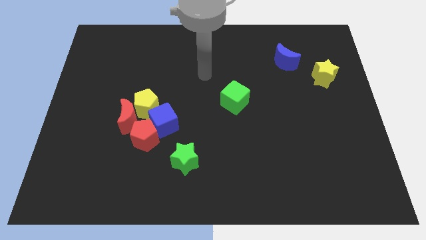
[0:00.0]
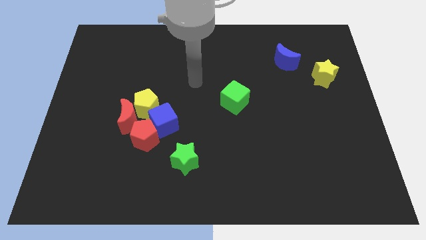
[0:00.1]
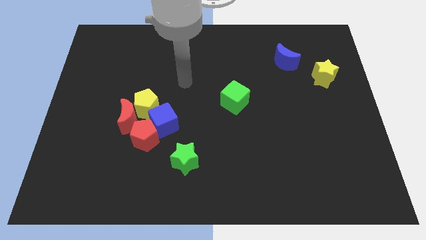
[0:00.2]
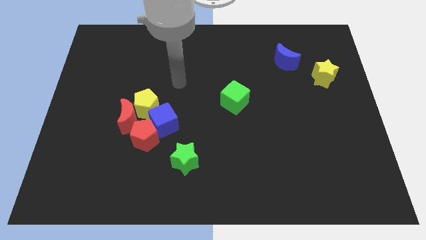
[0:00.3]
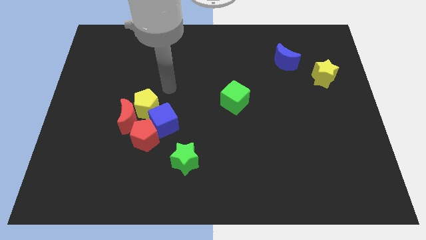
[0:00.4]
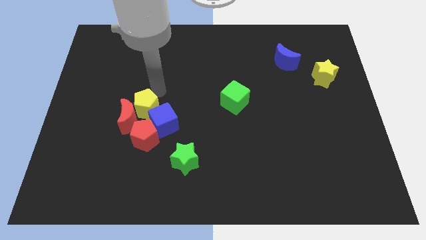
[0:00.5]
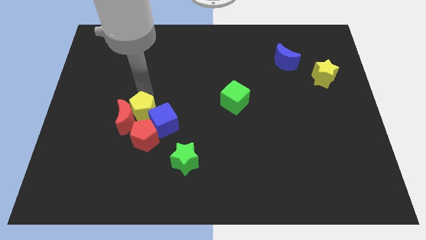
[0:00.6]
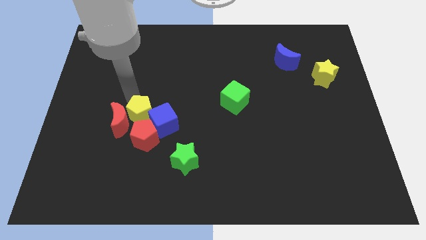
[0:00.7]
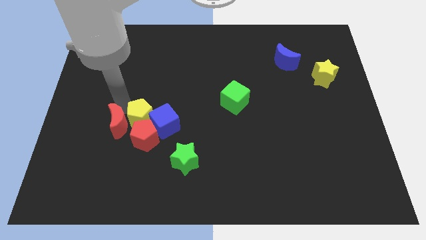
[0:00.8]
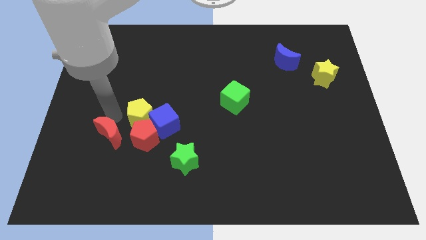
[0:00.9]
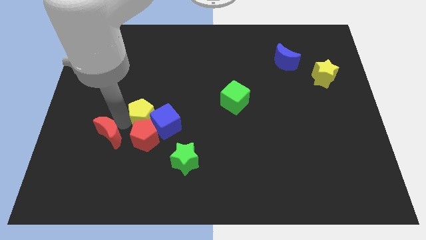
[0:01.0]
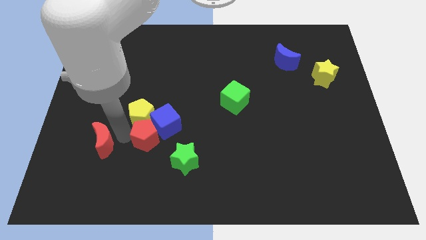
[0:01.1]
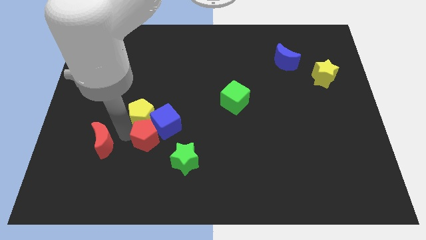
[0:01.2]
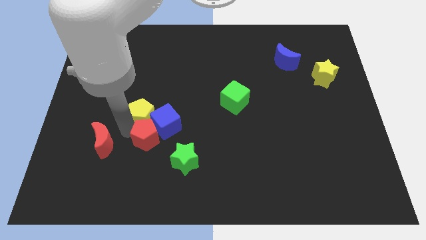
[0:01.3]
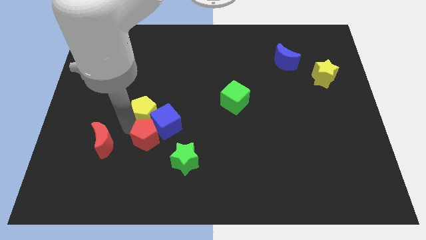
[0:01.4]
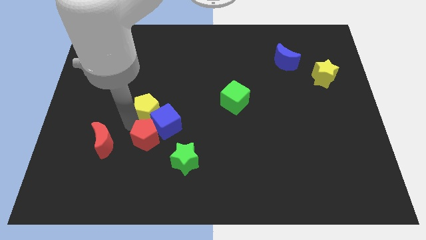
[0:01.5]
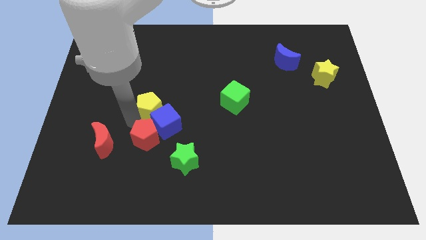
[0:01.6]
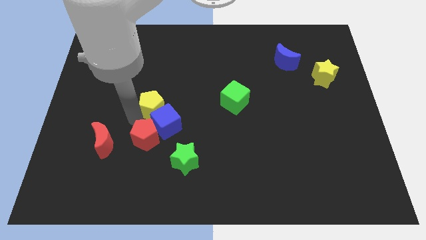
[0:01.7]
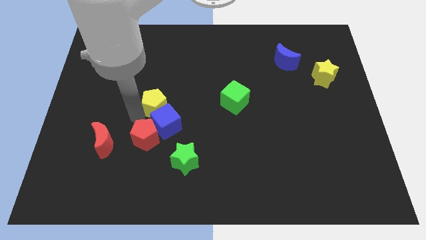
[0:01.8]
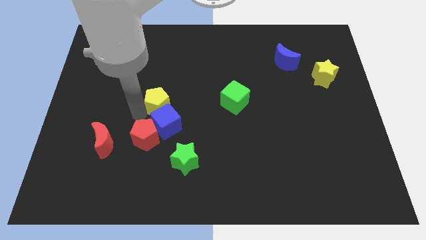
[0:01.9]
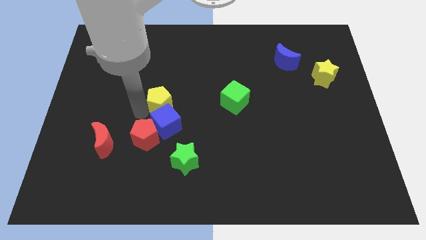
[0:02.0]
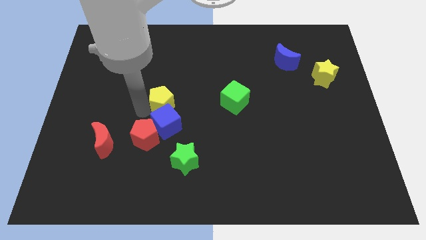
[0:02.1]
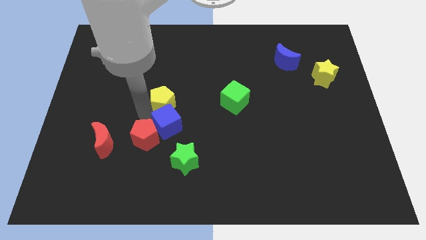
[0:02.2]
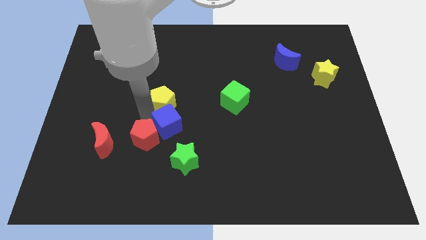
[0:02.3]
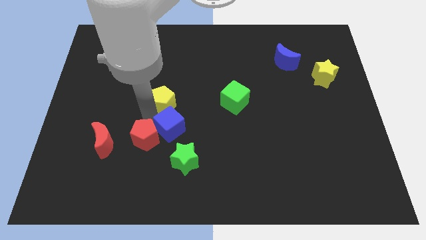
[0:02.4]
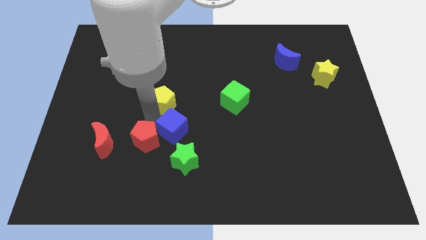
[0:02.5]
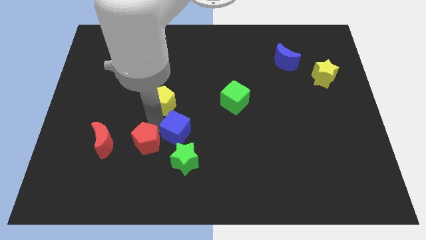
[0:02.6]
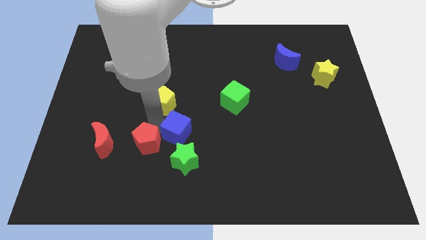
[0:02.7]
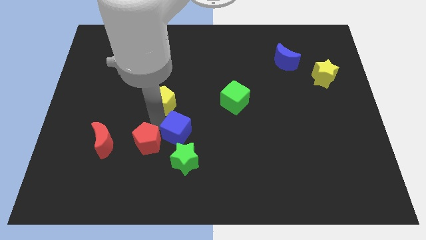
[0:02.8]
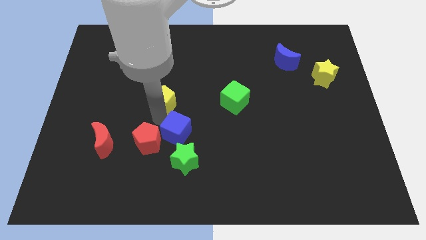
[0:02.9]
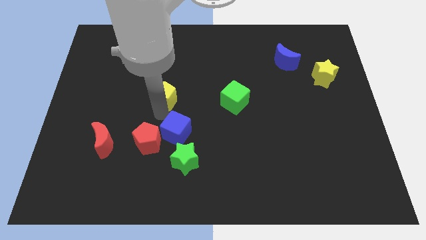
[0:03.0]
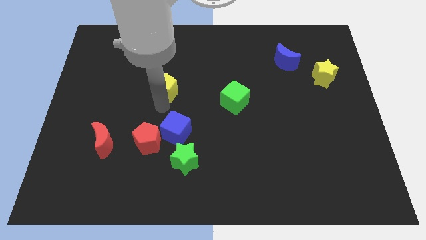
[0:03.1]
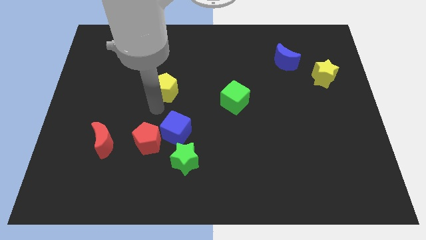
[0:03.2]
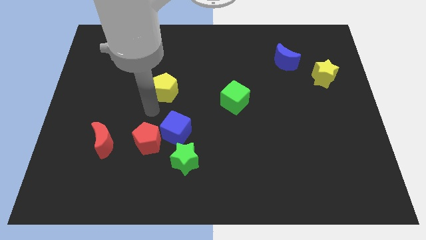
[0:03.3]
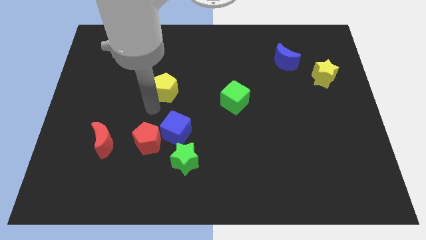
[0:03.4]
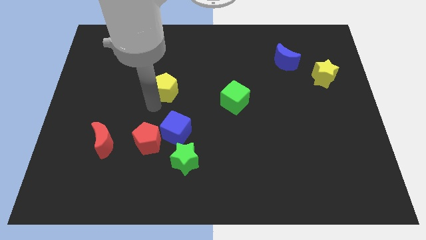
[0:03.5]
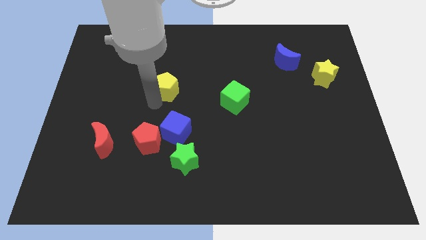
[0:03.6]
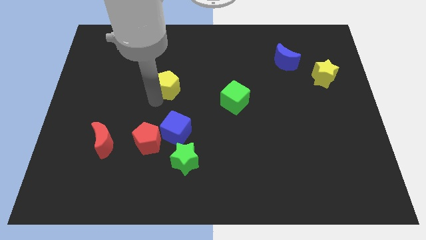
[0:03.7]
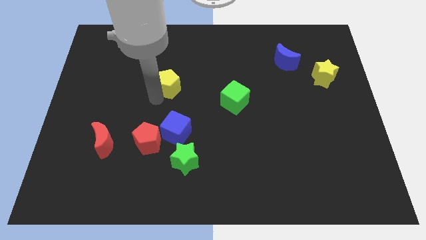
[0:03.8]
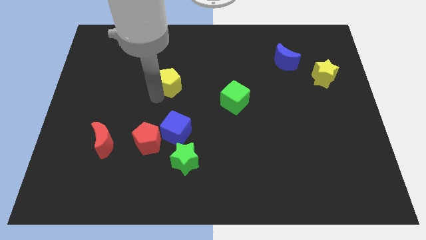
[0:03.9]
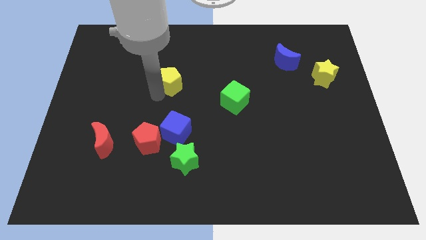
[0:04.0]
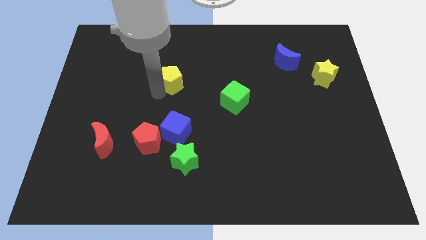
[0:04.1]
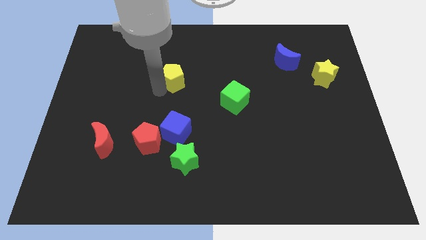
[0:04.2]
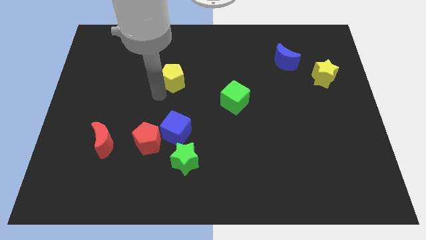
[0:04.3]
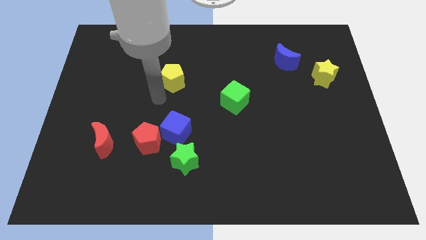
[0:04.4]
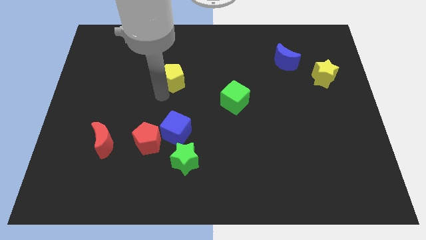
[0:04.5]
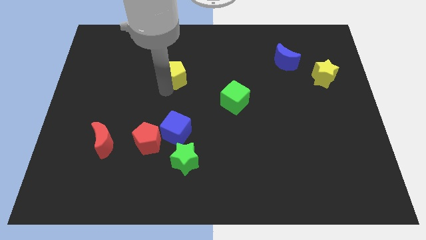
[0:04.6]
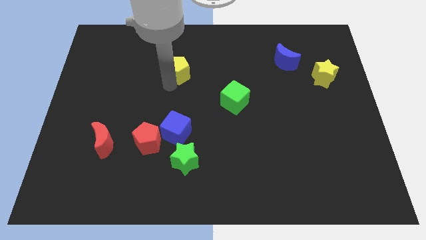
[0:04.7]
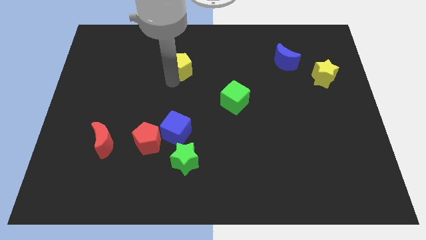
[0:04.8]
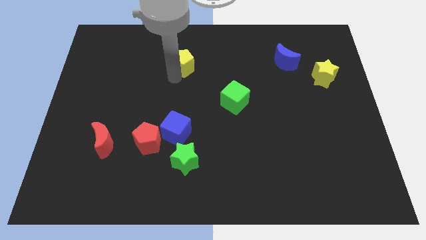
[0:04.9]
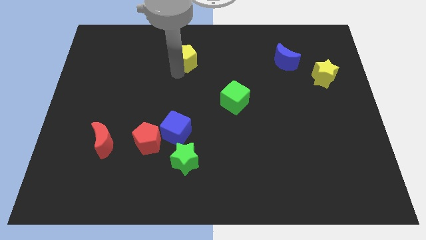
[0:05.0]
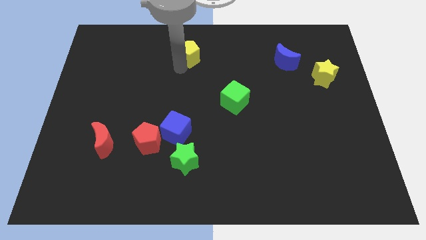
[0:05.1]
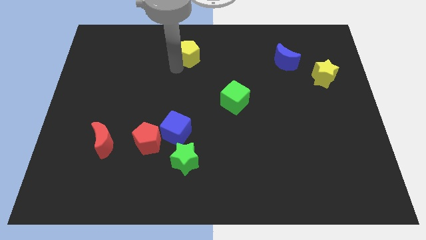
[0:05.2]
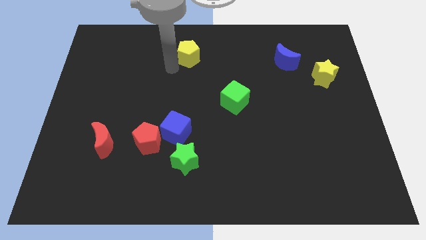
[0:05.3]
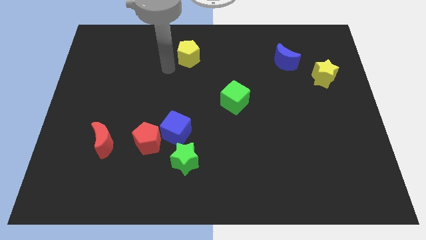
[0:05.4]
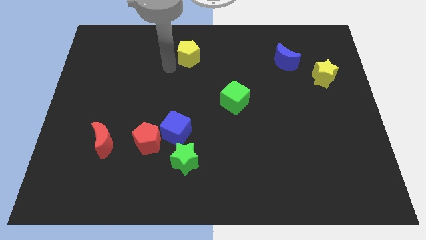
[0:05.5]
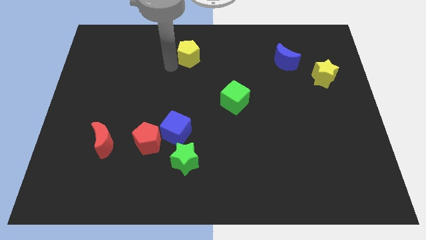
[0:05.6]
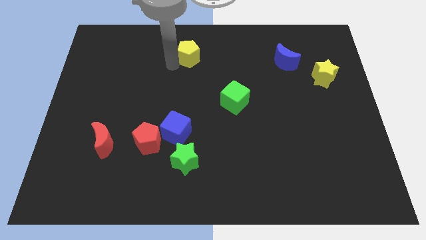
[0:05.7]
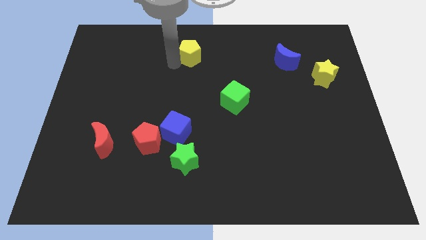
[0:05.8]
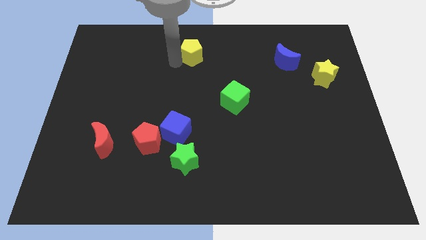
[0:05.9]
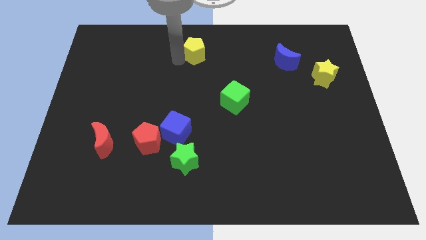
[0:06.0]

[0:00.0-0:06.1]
move the yellow pentagon to the towards your base

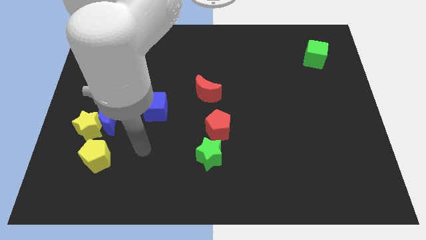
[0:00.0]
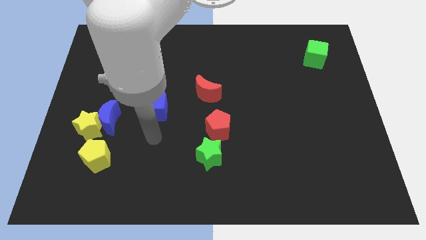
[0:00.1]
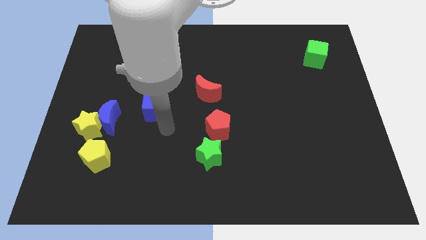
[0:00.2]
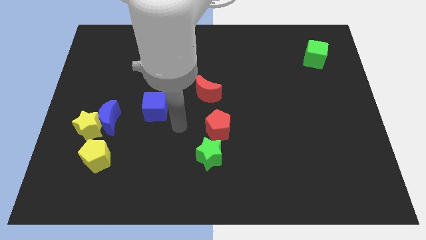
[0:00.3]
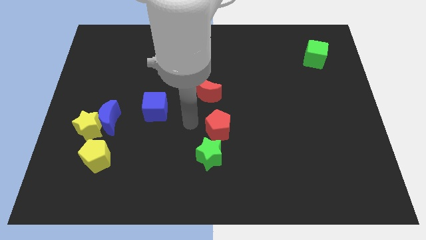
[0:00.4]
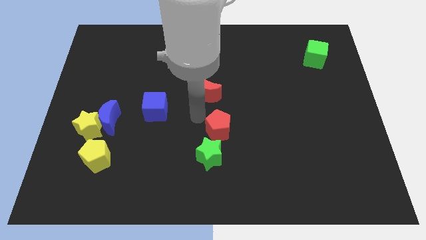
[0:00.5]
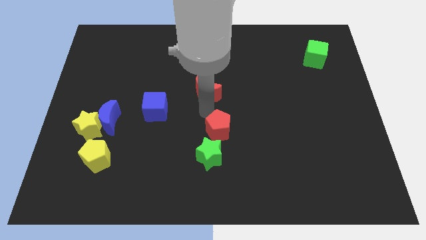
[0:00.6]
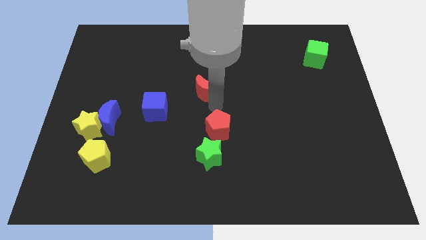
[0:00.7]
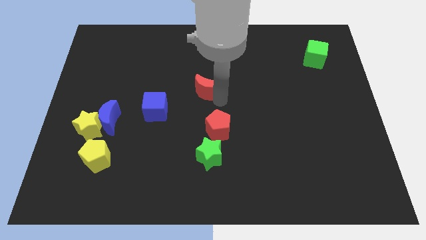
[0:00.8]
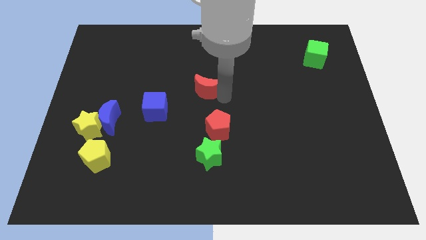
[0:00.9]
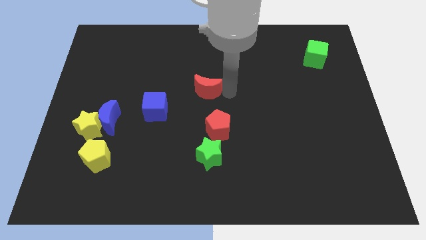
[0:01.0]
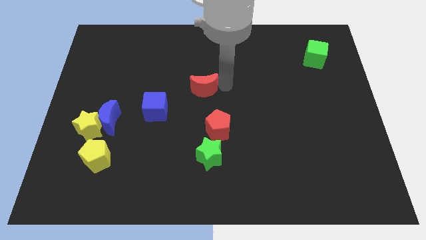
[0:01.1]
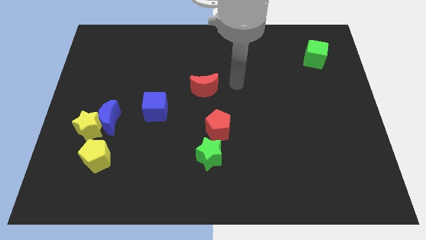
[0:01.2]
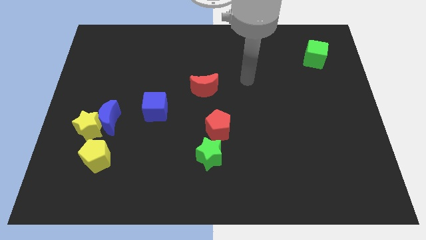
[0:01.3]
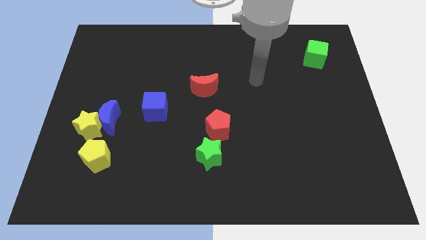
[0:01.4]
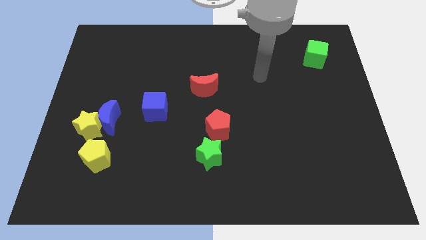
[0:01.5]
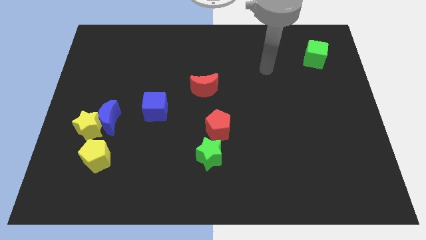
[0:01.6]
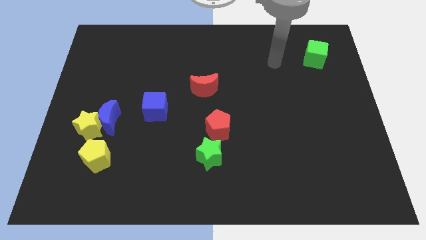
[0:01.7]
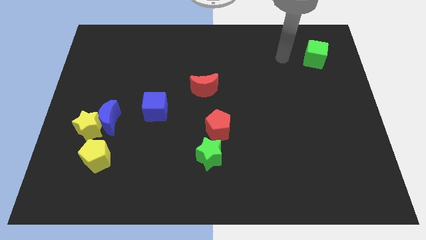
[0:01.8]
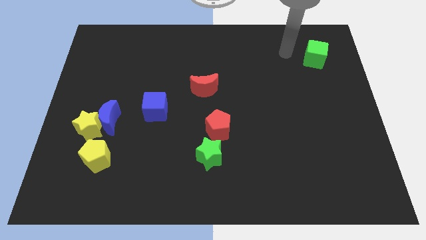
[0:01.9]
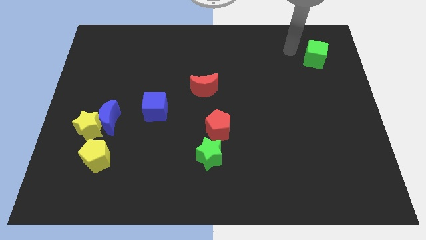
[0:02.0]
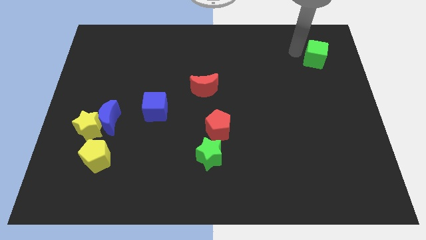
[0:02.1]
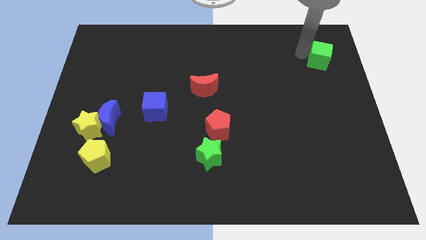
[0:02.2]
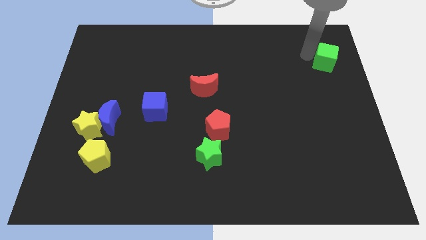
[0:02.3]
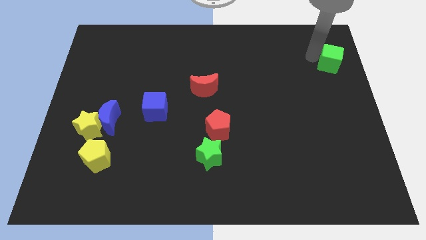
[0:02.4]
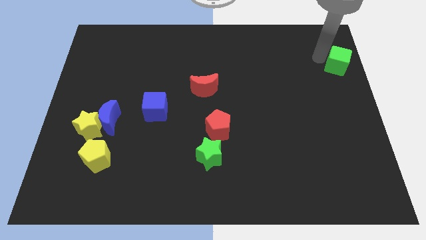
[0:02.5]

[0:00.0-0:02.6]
move the green cube to the center right
